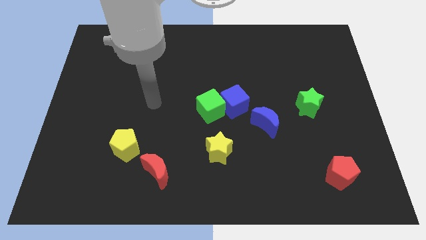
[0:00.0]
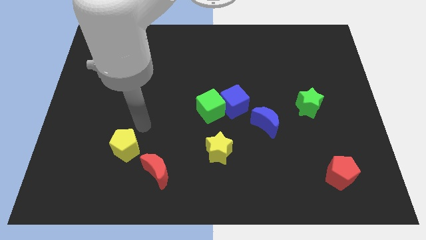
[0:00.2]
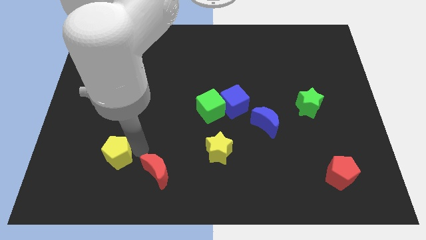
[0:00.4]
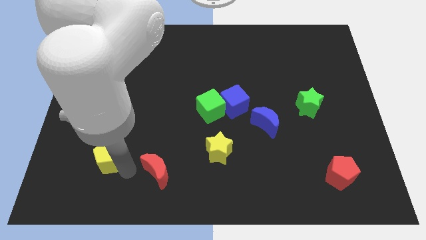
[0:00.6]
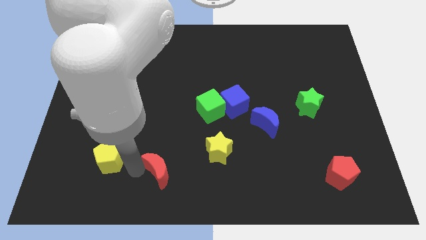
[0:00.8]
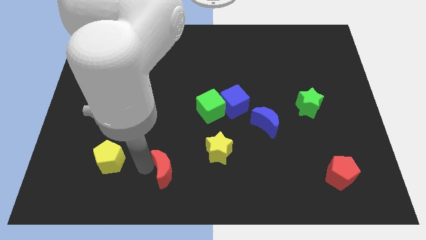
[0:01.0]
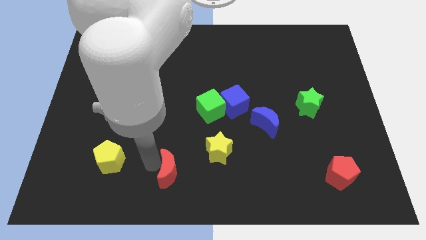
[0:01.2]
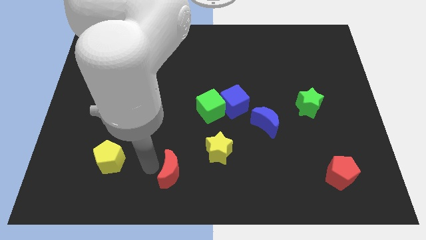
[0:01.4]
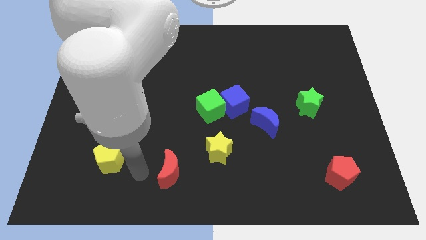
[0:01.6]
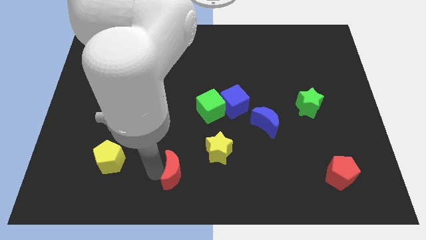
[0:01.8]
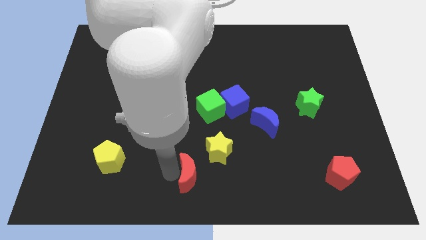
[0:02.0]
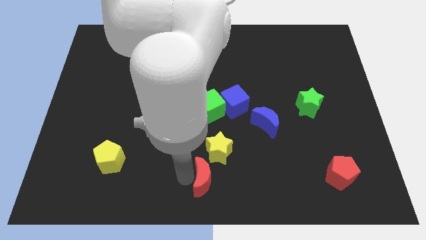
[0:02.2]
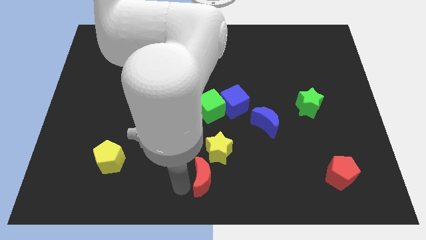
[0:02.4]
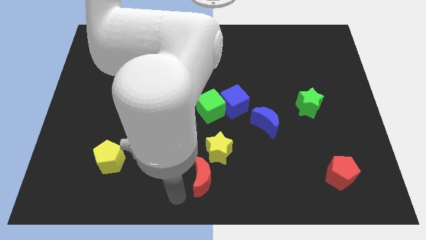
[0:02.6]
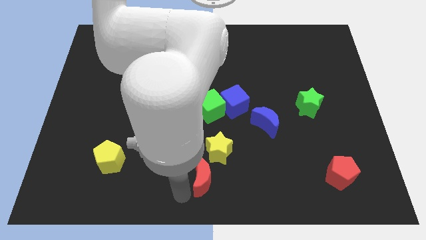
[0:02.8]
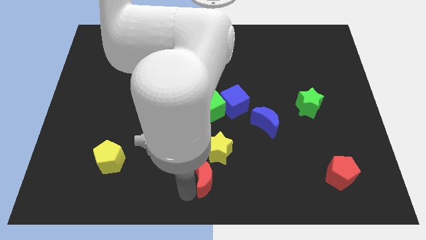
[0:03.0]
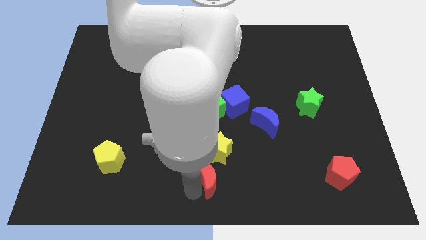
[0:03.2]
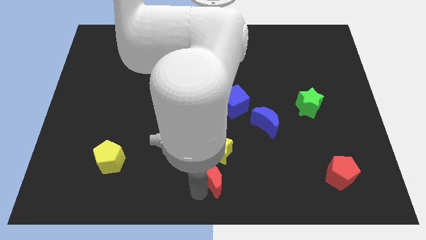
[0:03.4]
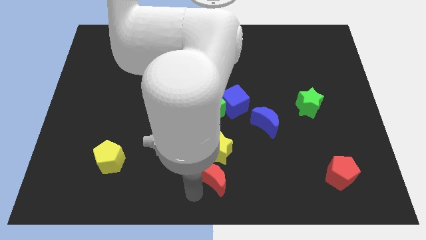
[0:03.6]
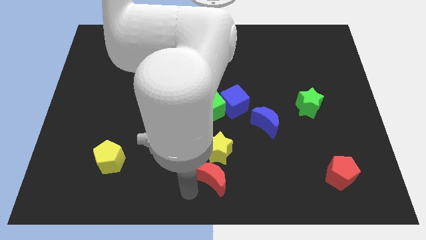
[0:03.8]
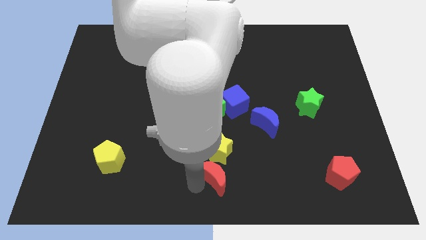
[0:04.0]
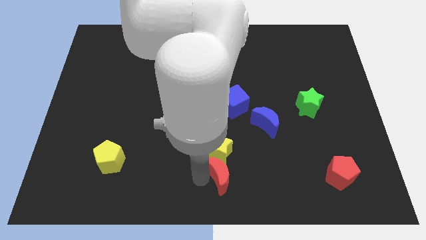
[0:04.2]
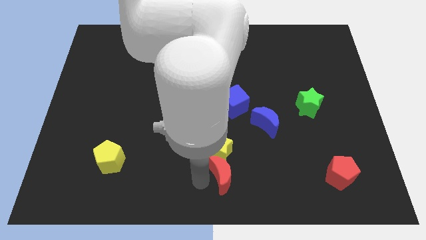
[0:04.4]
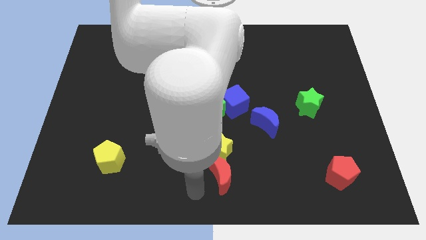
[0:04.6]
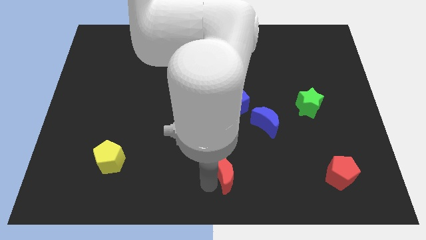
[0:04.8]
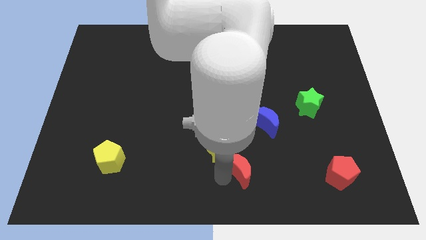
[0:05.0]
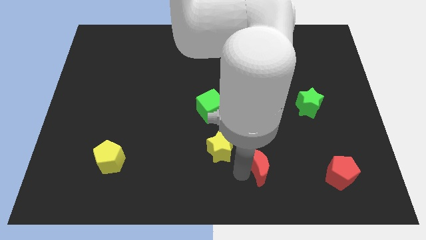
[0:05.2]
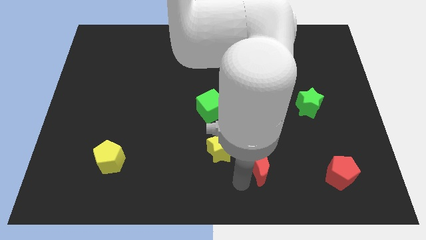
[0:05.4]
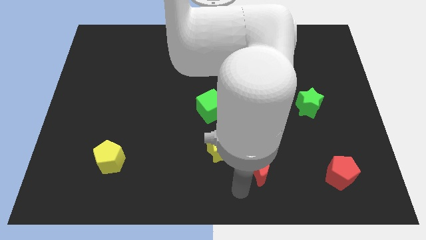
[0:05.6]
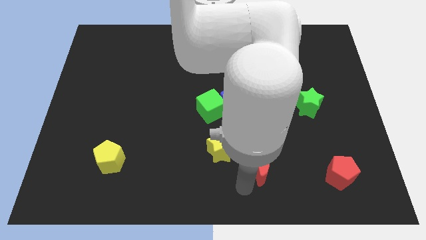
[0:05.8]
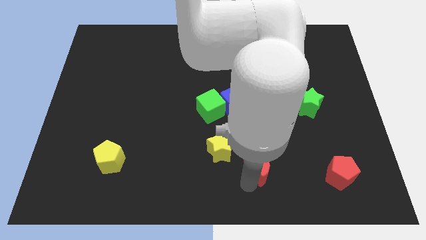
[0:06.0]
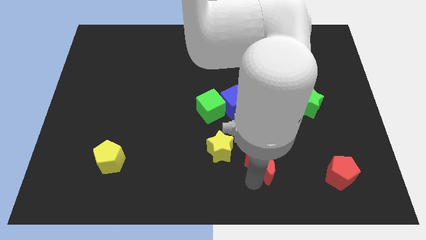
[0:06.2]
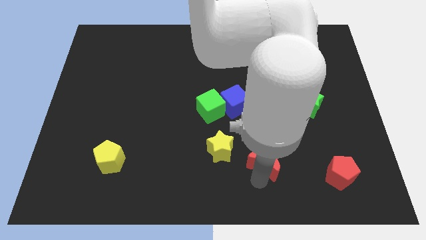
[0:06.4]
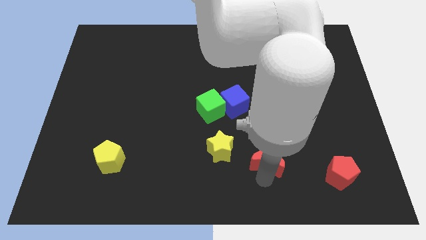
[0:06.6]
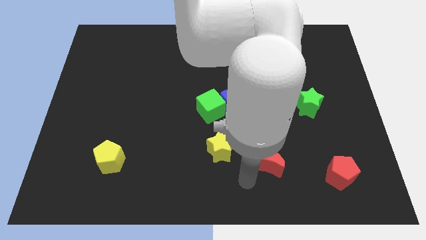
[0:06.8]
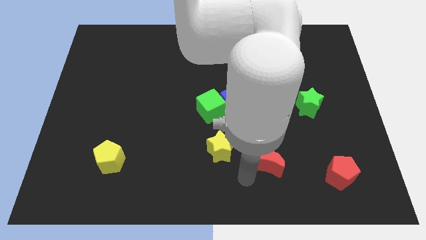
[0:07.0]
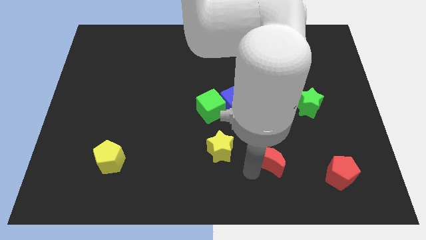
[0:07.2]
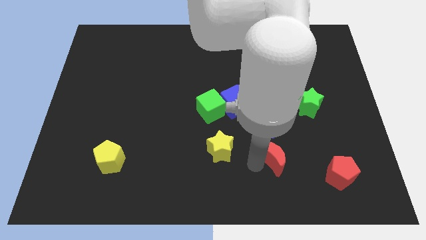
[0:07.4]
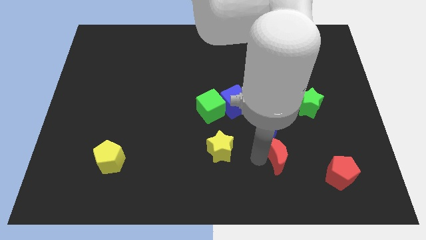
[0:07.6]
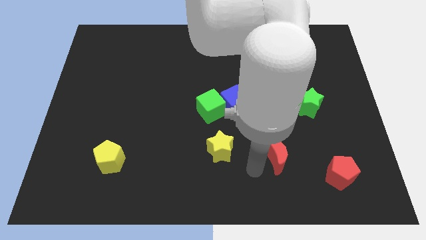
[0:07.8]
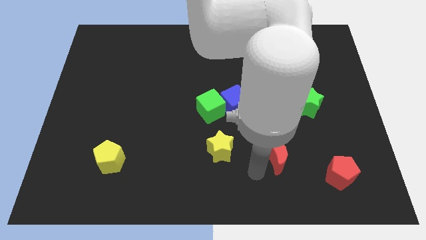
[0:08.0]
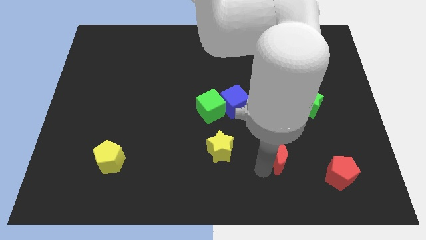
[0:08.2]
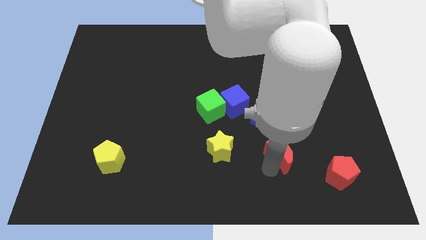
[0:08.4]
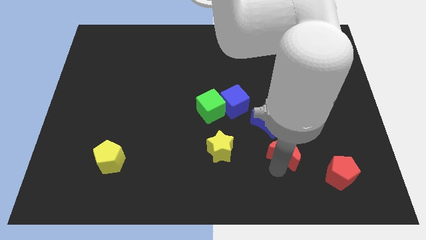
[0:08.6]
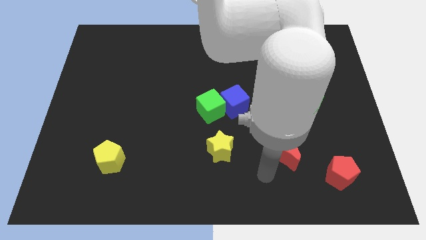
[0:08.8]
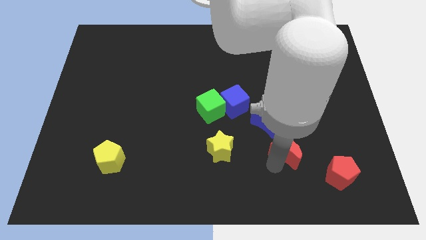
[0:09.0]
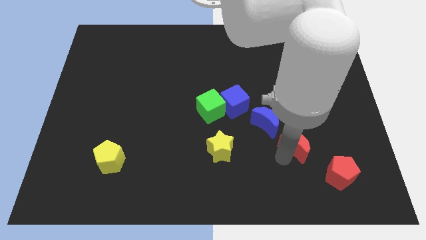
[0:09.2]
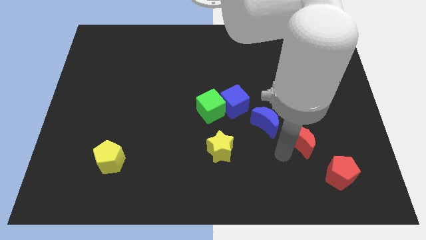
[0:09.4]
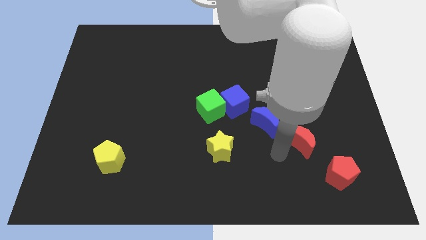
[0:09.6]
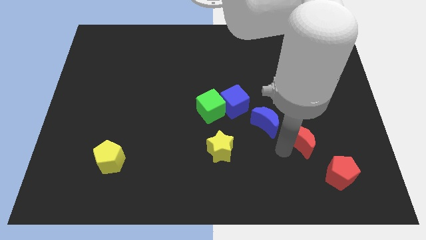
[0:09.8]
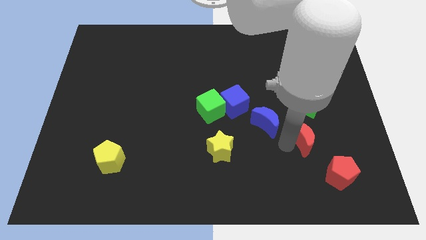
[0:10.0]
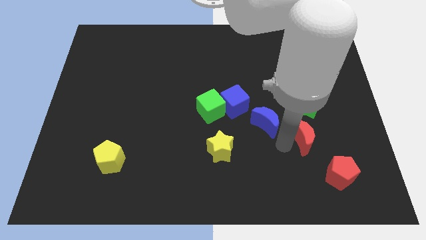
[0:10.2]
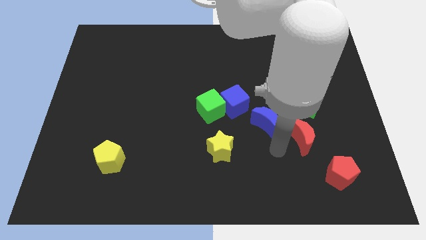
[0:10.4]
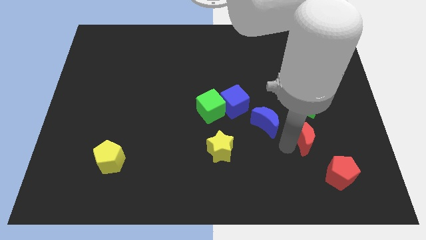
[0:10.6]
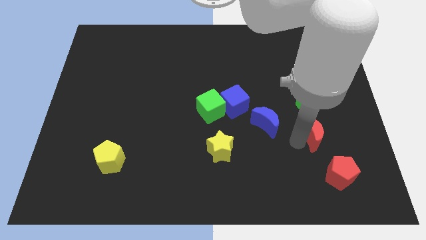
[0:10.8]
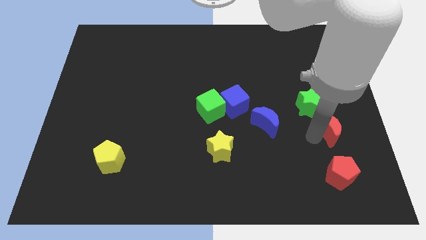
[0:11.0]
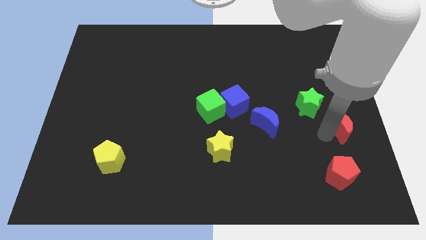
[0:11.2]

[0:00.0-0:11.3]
move the red moon to the right side
